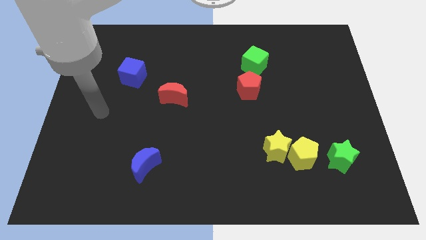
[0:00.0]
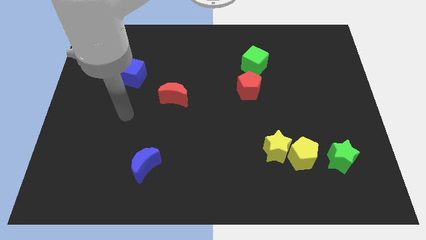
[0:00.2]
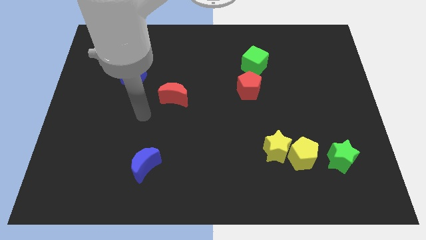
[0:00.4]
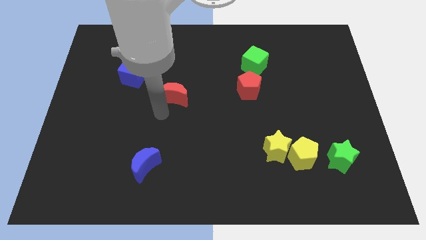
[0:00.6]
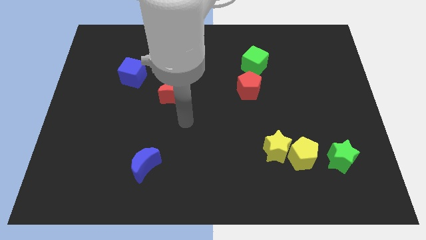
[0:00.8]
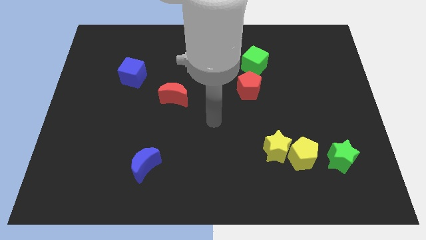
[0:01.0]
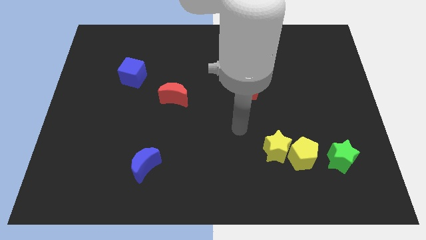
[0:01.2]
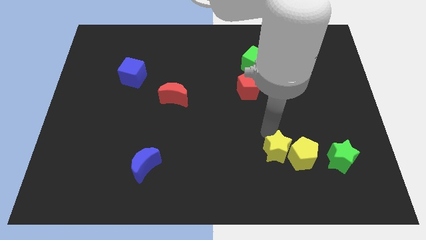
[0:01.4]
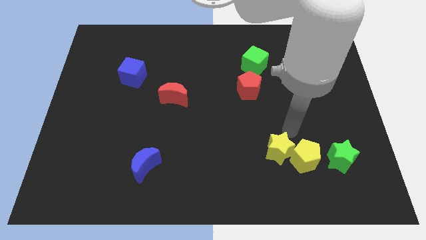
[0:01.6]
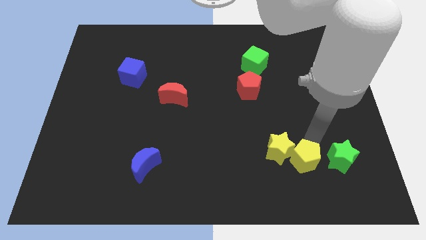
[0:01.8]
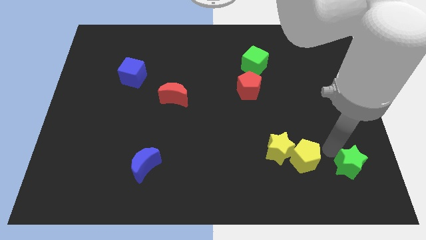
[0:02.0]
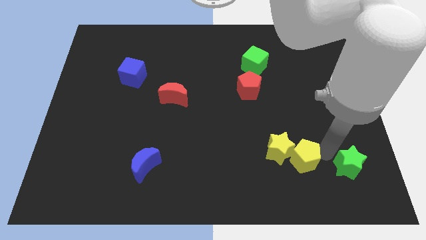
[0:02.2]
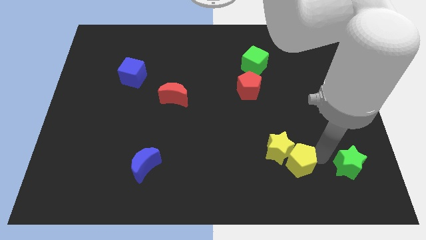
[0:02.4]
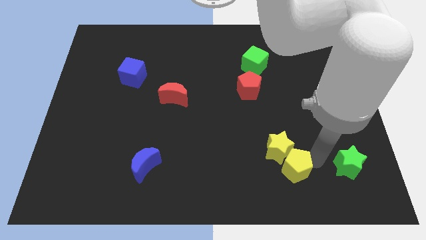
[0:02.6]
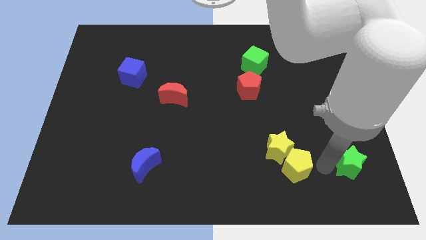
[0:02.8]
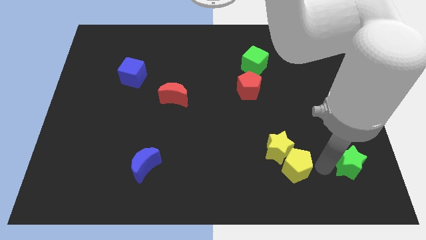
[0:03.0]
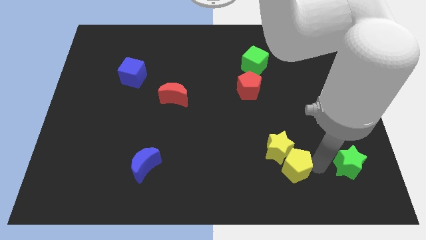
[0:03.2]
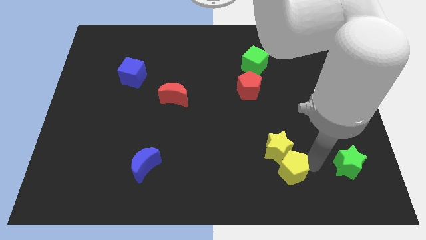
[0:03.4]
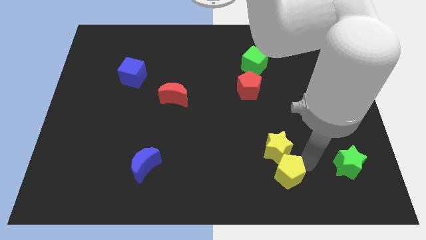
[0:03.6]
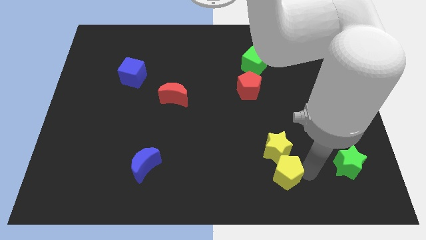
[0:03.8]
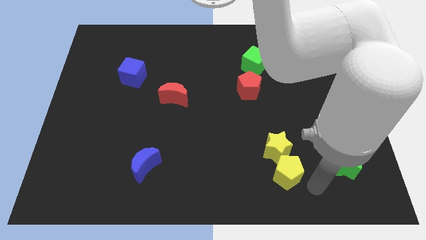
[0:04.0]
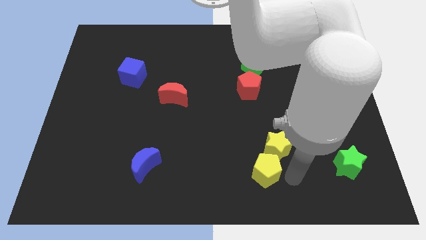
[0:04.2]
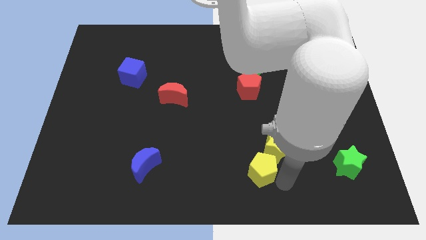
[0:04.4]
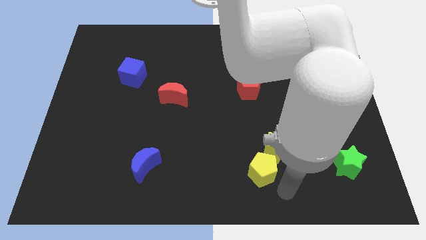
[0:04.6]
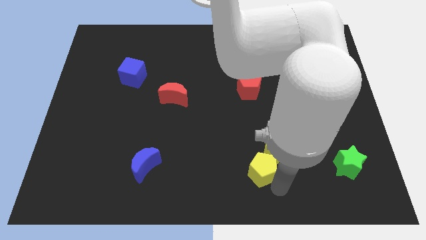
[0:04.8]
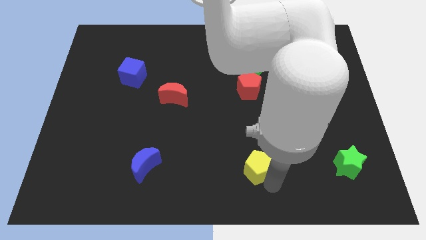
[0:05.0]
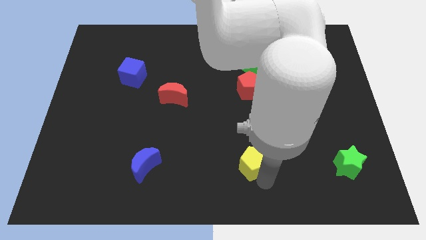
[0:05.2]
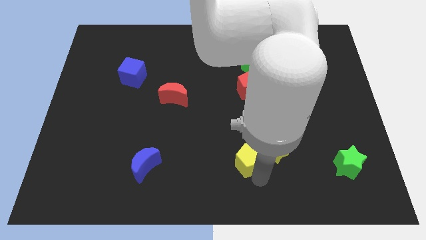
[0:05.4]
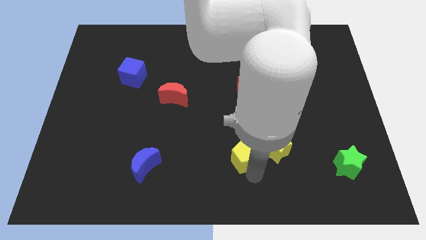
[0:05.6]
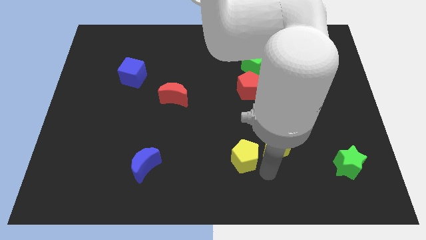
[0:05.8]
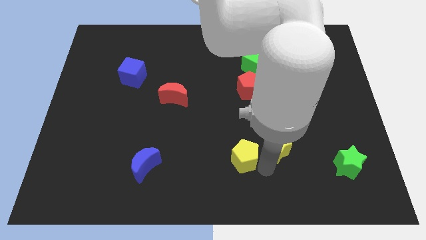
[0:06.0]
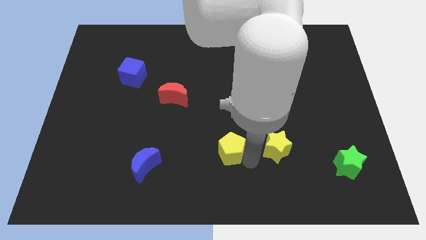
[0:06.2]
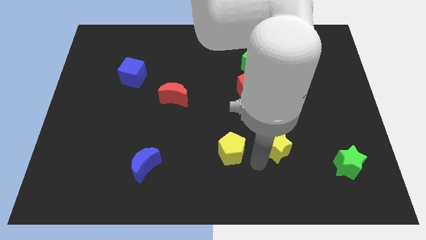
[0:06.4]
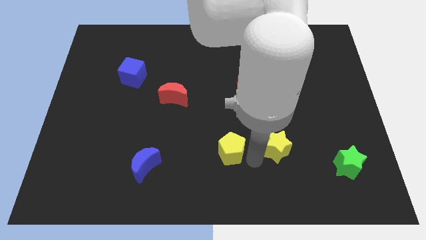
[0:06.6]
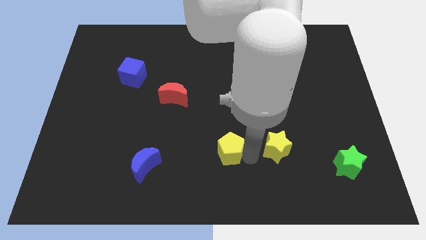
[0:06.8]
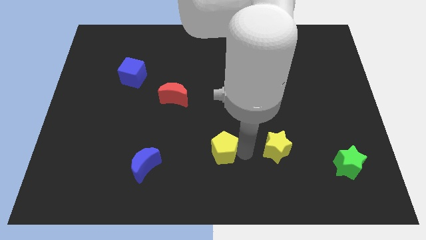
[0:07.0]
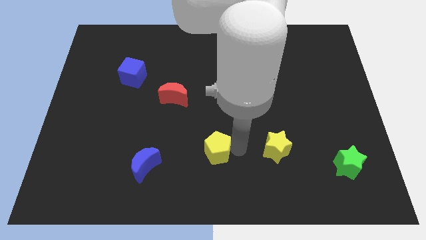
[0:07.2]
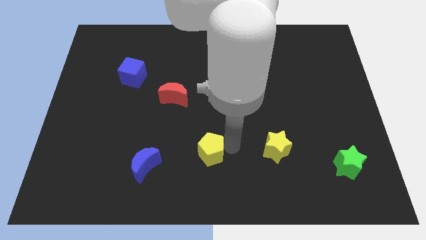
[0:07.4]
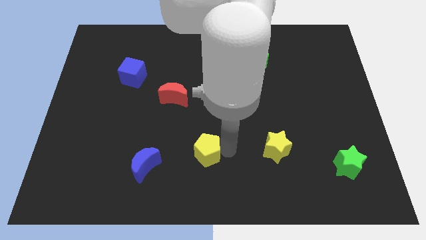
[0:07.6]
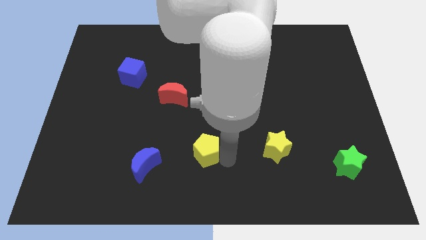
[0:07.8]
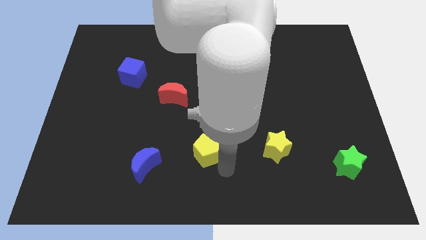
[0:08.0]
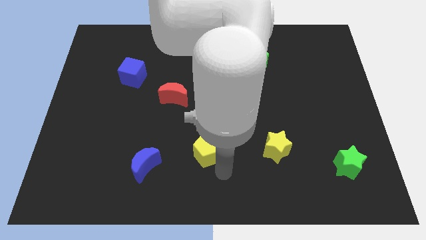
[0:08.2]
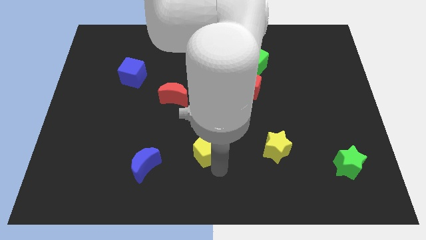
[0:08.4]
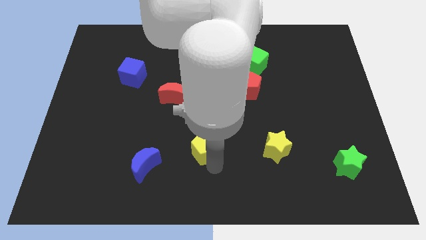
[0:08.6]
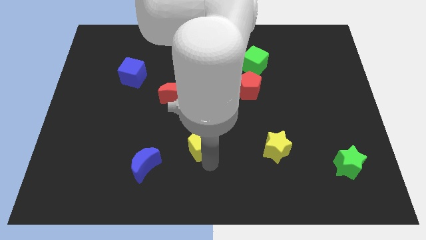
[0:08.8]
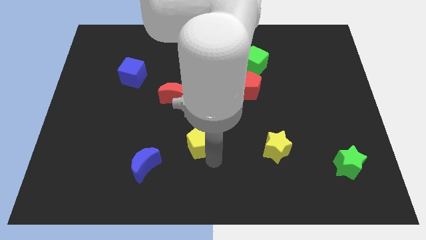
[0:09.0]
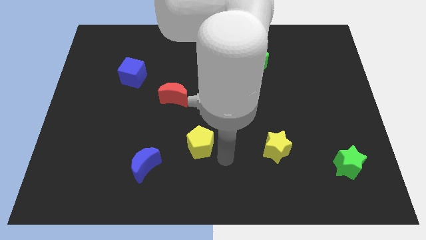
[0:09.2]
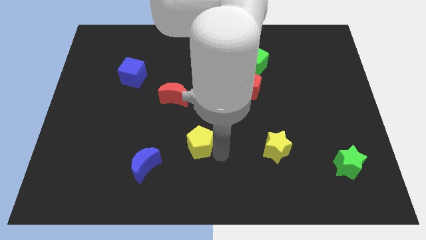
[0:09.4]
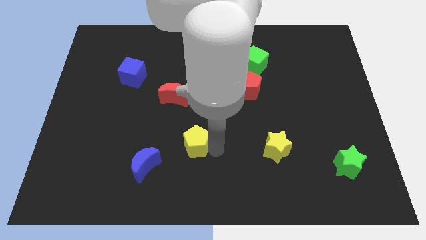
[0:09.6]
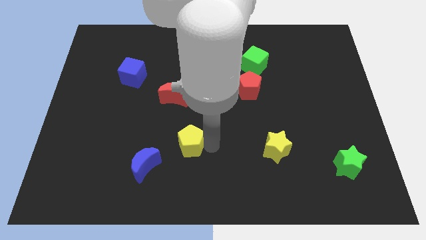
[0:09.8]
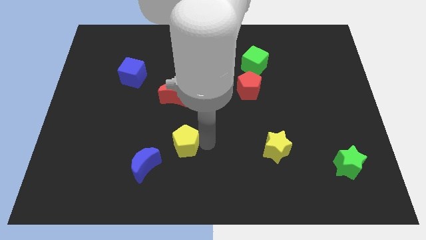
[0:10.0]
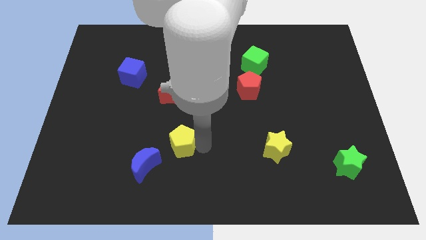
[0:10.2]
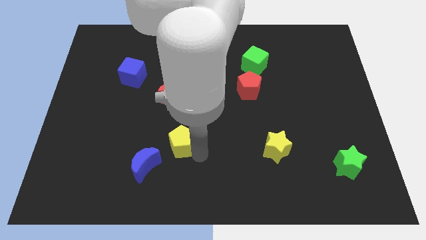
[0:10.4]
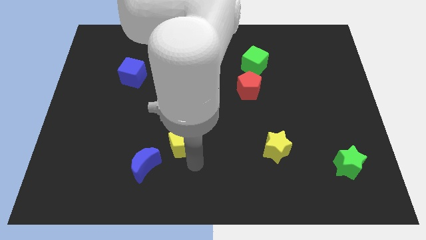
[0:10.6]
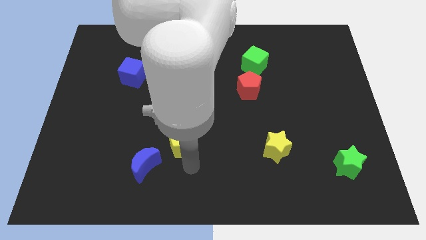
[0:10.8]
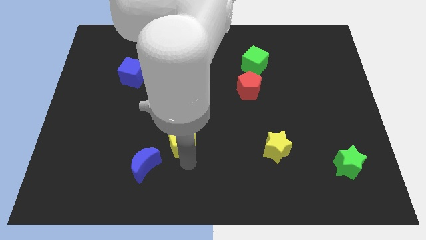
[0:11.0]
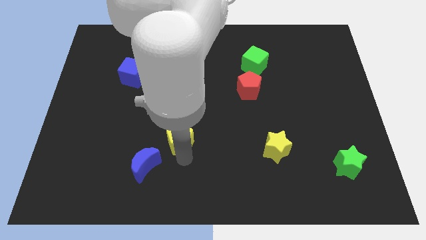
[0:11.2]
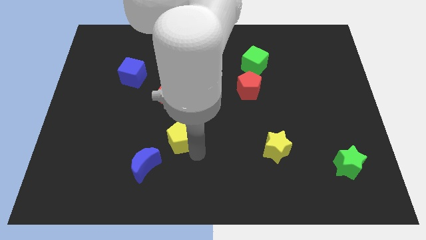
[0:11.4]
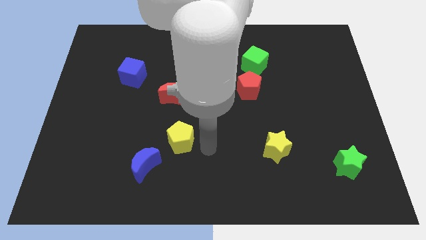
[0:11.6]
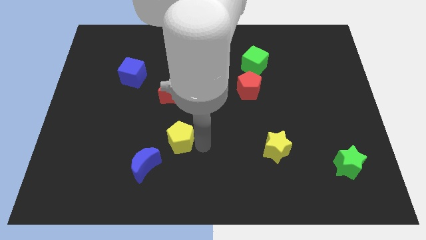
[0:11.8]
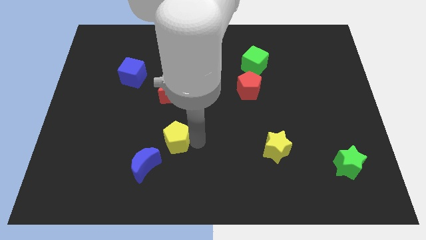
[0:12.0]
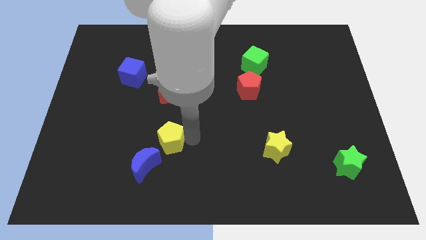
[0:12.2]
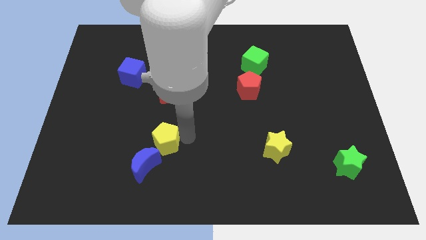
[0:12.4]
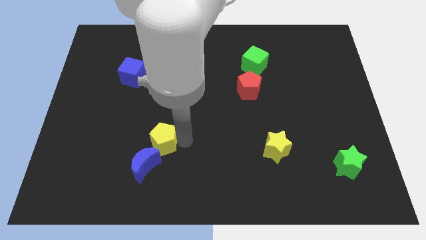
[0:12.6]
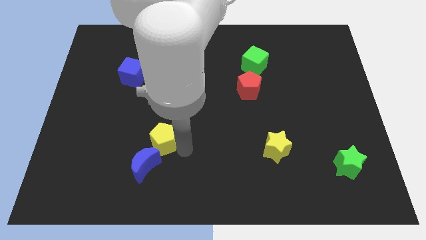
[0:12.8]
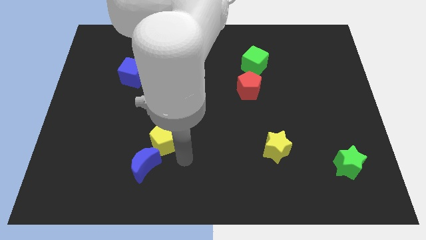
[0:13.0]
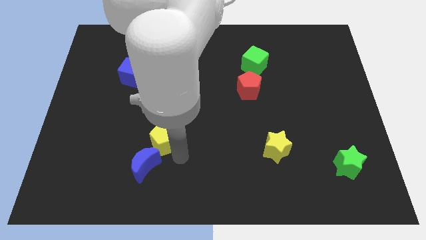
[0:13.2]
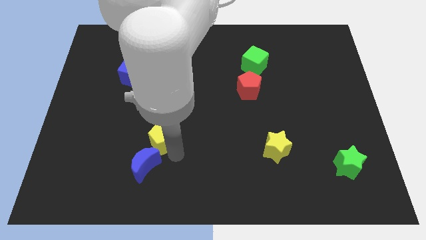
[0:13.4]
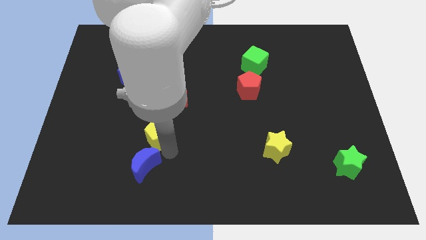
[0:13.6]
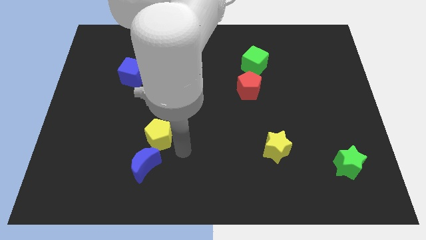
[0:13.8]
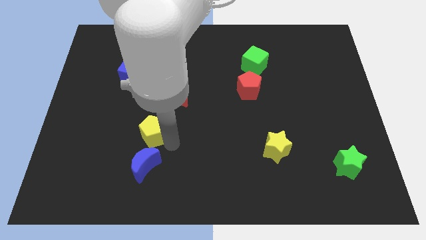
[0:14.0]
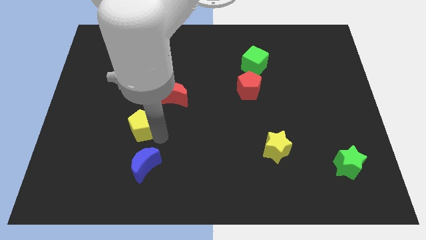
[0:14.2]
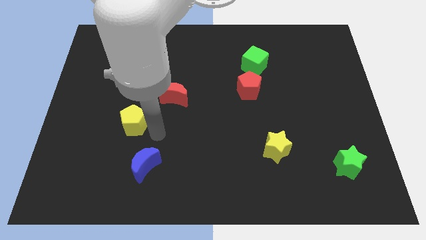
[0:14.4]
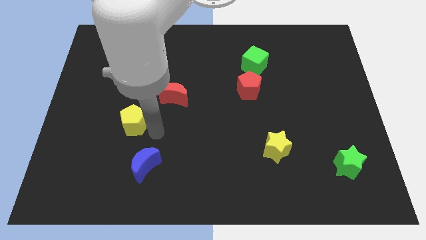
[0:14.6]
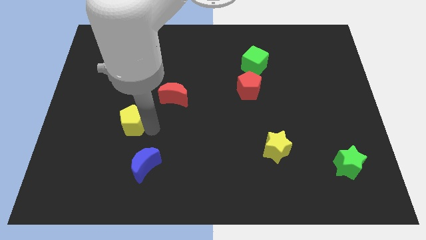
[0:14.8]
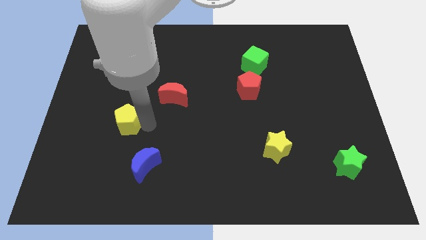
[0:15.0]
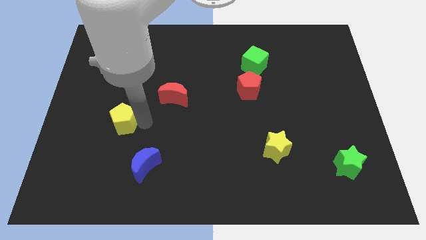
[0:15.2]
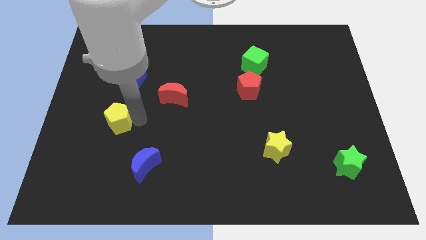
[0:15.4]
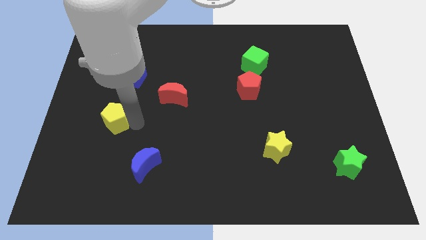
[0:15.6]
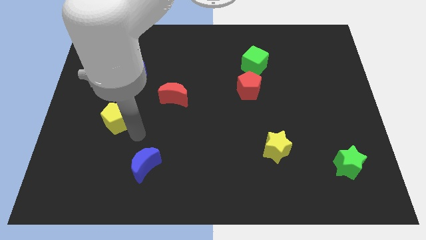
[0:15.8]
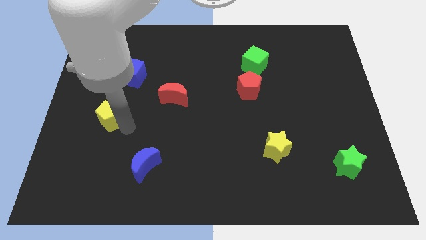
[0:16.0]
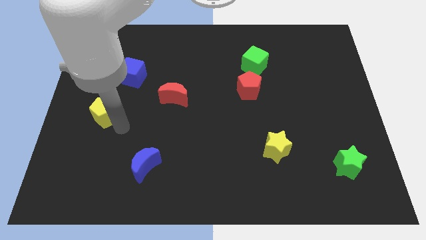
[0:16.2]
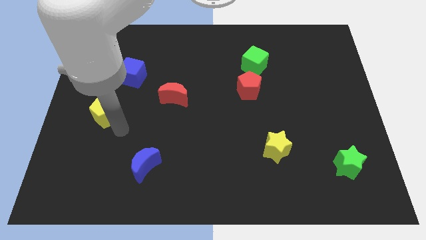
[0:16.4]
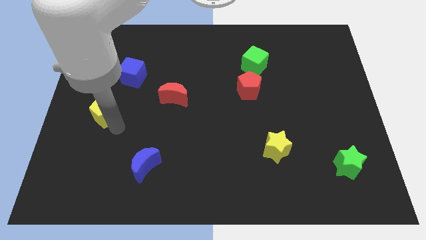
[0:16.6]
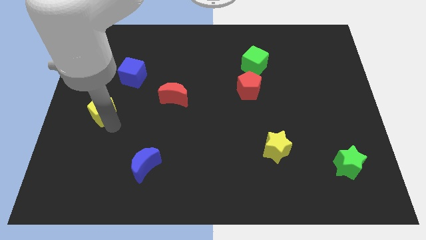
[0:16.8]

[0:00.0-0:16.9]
slide the yellow pentagon to the center left
